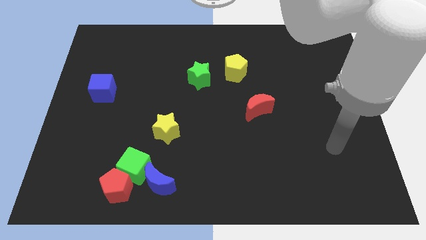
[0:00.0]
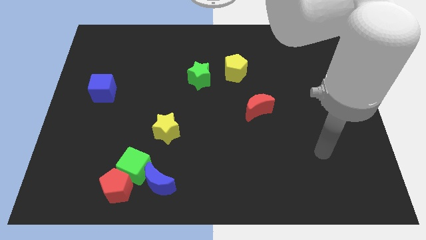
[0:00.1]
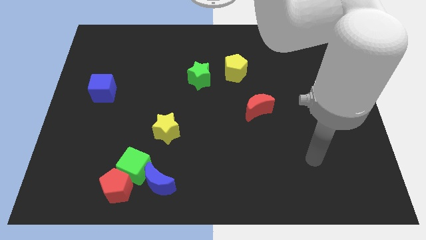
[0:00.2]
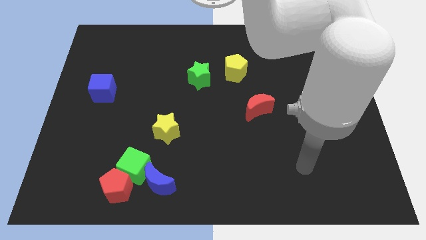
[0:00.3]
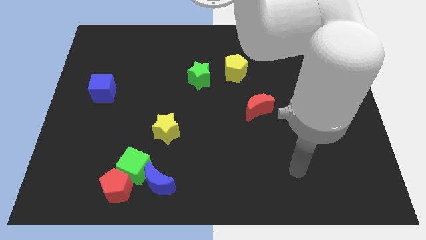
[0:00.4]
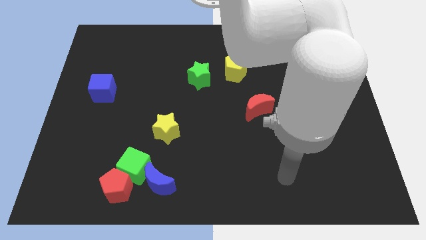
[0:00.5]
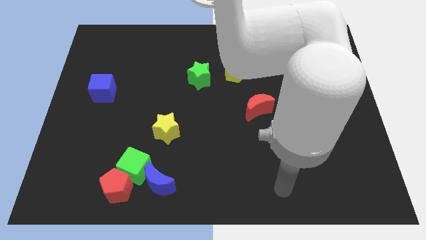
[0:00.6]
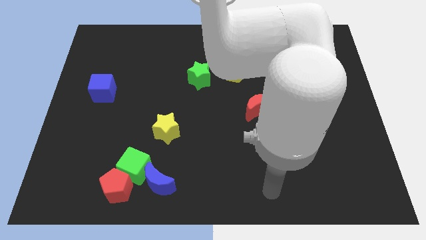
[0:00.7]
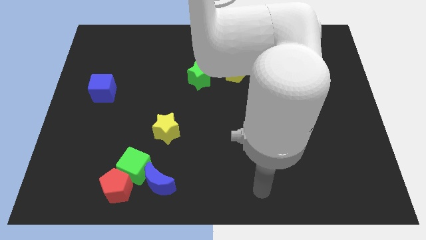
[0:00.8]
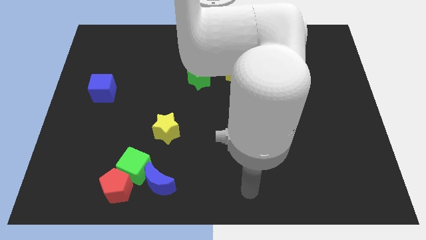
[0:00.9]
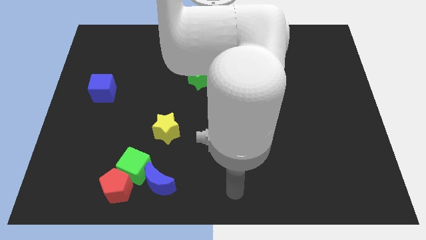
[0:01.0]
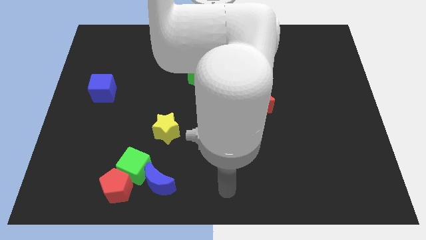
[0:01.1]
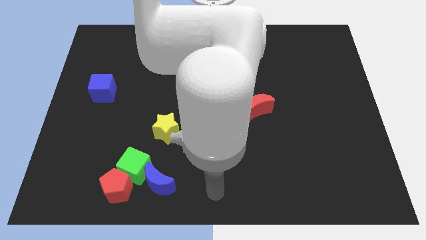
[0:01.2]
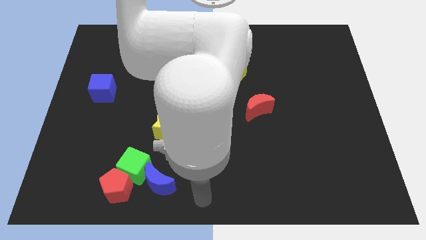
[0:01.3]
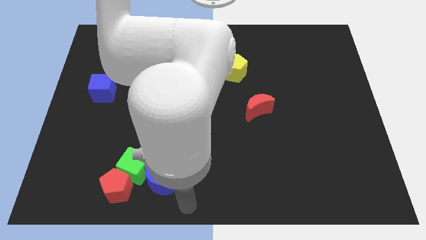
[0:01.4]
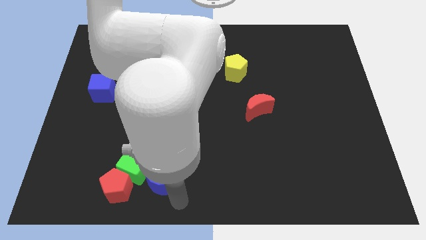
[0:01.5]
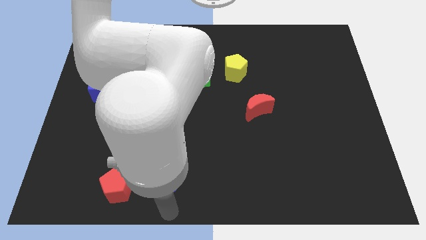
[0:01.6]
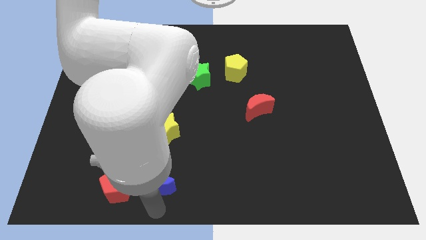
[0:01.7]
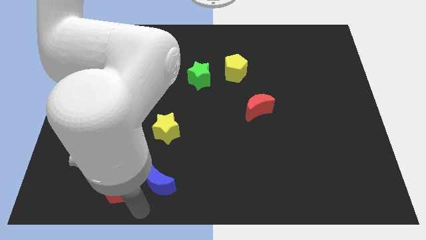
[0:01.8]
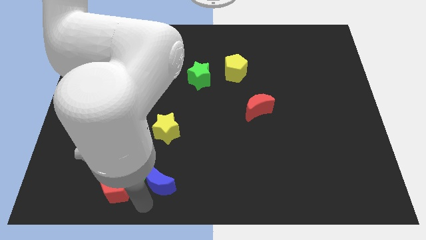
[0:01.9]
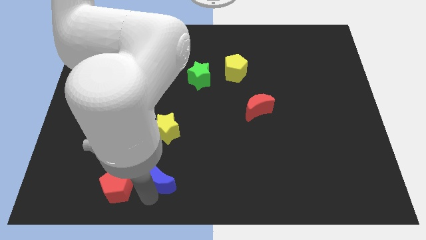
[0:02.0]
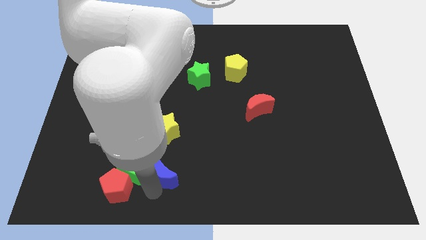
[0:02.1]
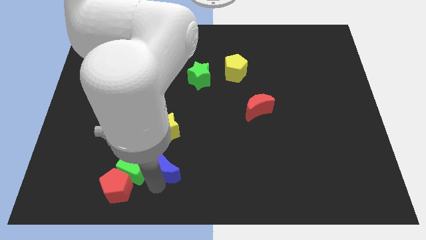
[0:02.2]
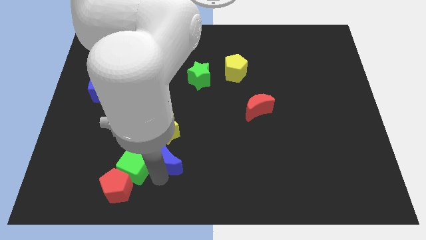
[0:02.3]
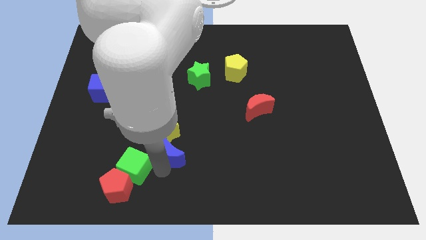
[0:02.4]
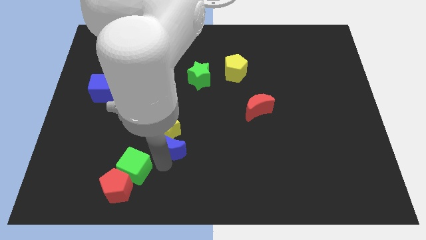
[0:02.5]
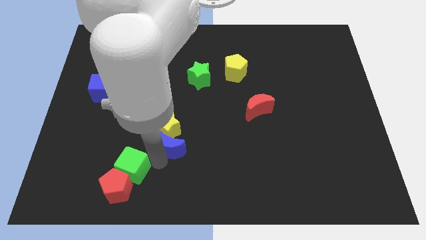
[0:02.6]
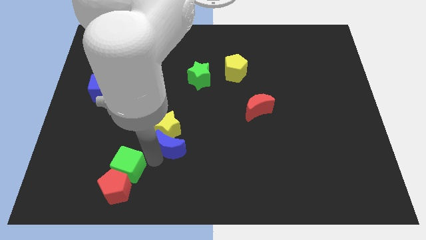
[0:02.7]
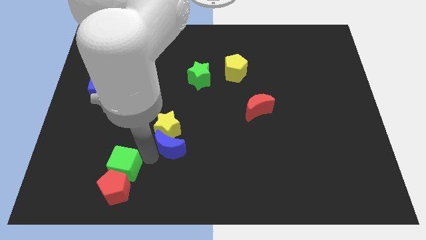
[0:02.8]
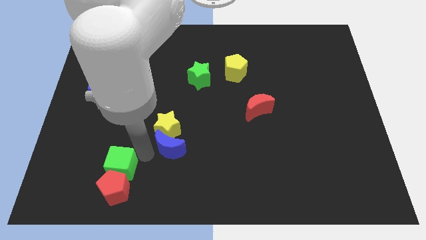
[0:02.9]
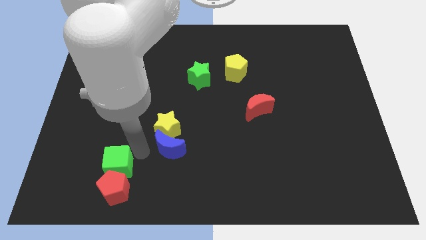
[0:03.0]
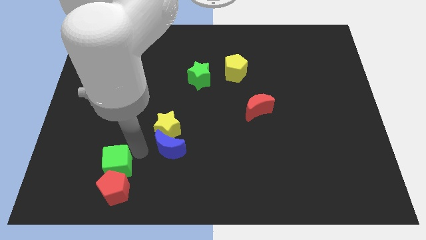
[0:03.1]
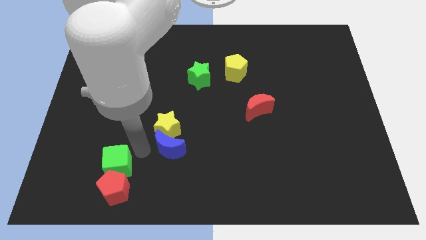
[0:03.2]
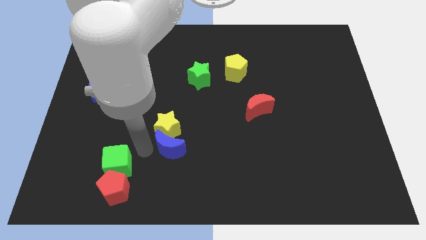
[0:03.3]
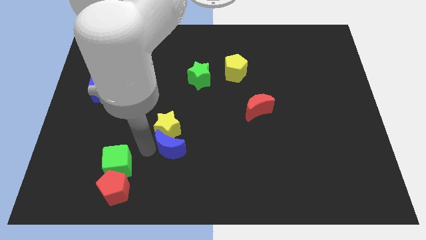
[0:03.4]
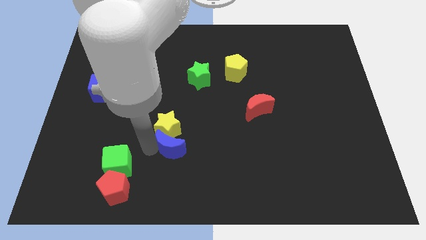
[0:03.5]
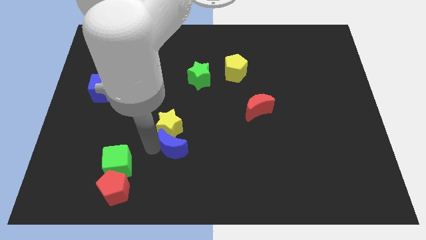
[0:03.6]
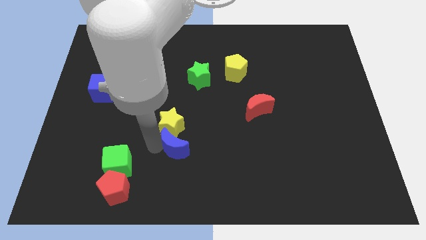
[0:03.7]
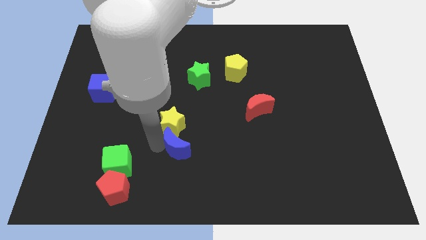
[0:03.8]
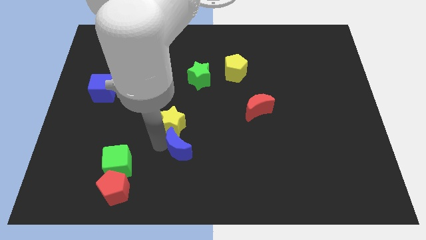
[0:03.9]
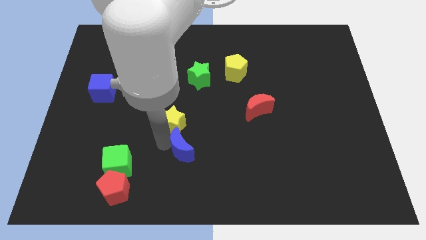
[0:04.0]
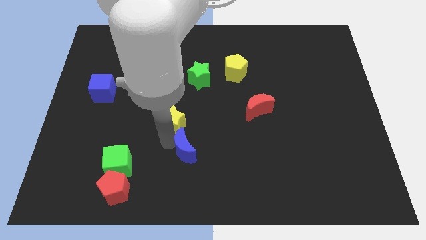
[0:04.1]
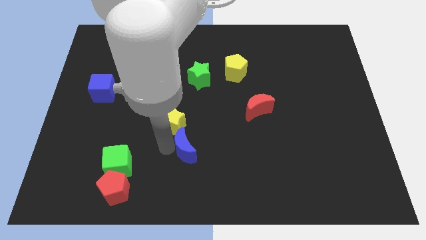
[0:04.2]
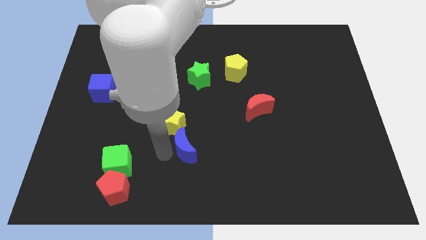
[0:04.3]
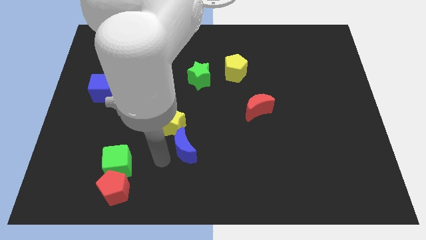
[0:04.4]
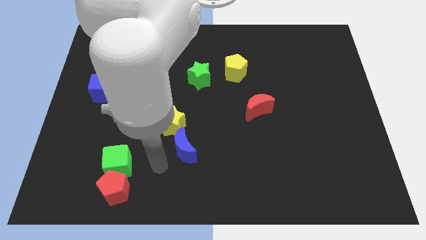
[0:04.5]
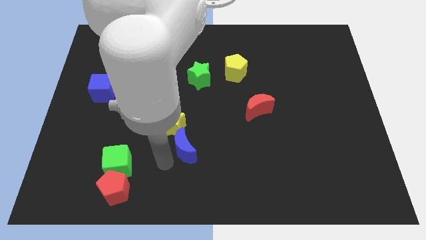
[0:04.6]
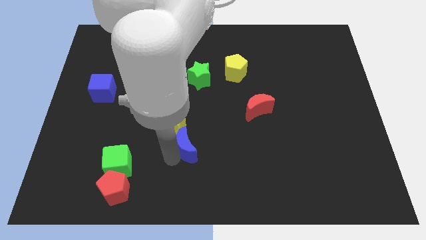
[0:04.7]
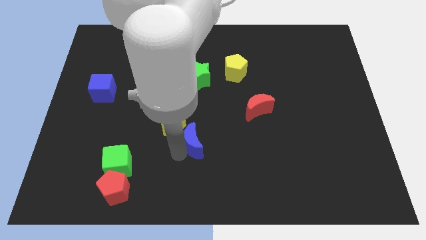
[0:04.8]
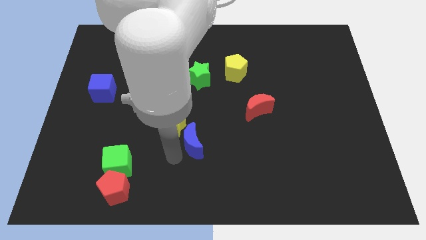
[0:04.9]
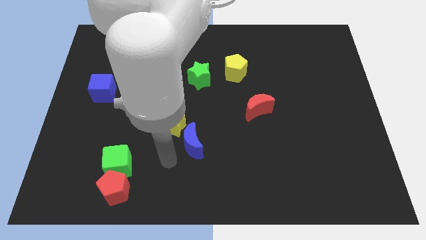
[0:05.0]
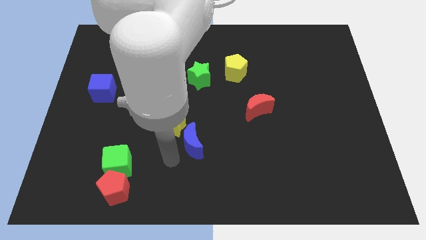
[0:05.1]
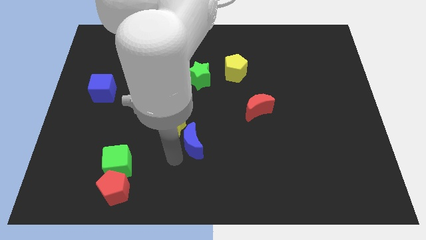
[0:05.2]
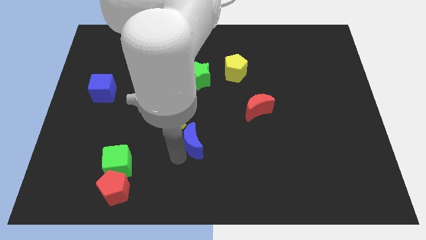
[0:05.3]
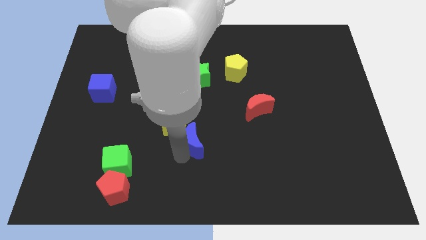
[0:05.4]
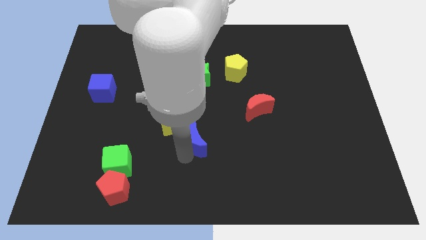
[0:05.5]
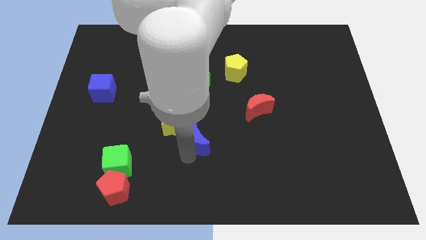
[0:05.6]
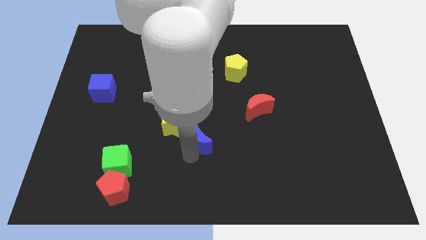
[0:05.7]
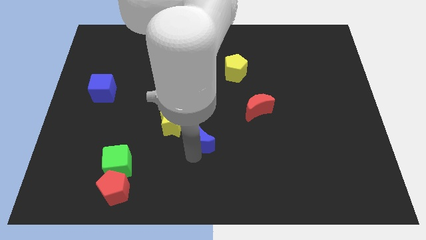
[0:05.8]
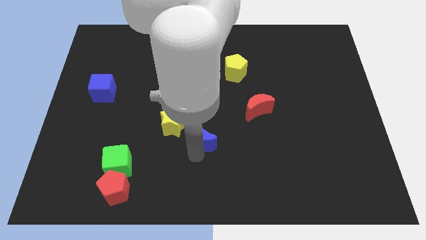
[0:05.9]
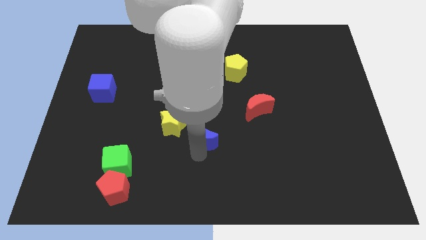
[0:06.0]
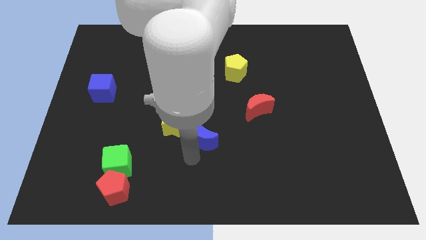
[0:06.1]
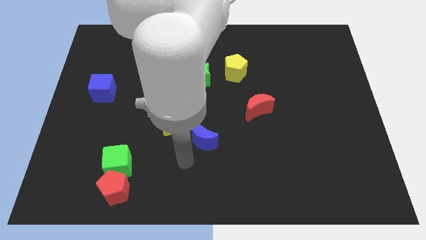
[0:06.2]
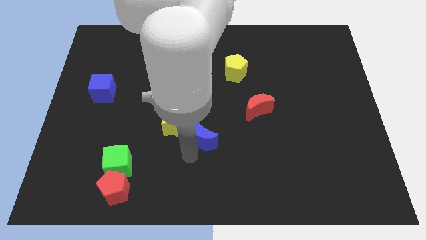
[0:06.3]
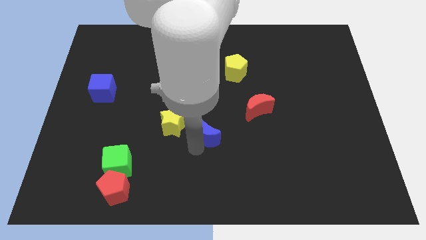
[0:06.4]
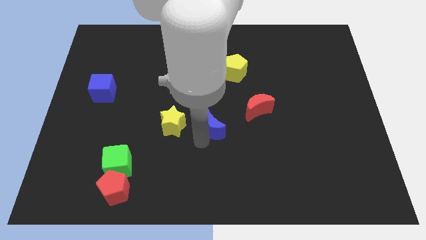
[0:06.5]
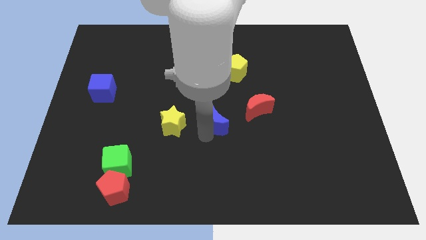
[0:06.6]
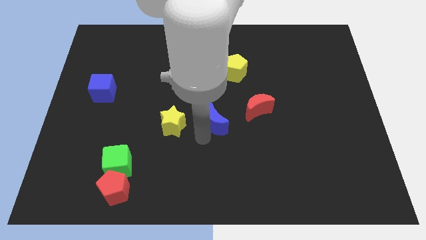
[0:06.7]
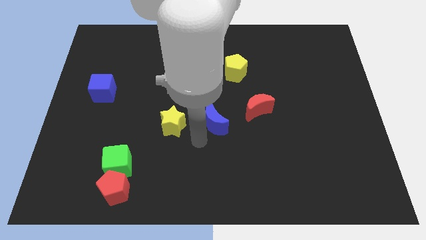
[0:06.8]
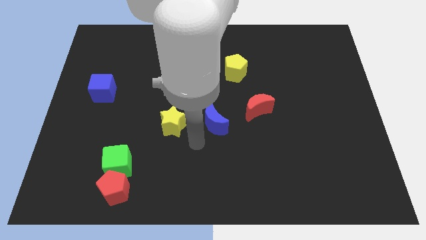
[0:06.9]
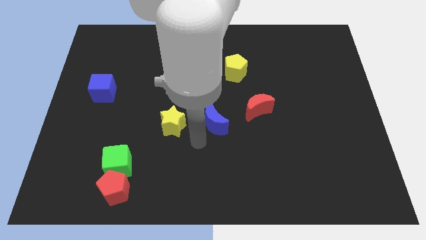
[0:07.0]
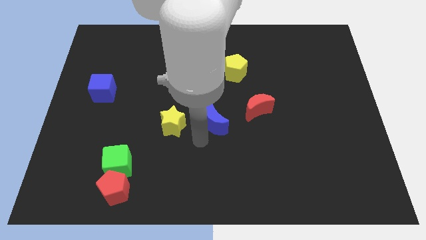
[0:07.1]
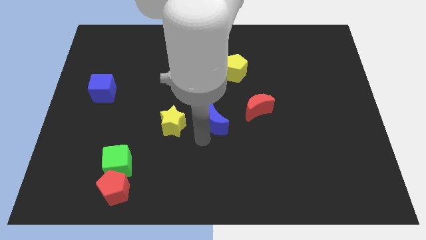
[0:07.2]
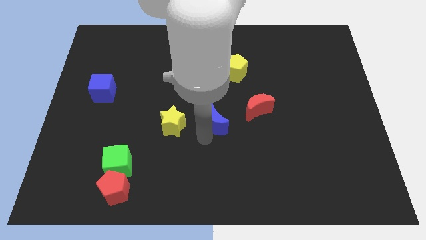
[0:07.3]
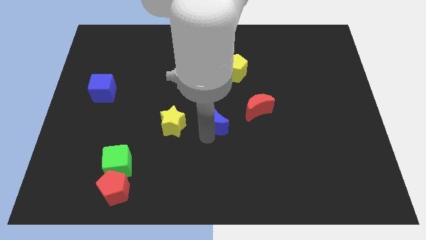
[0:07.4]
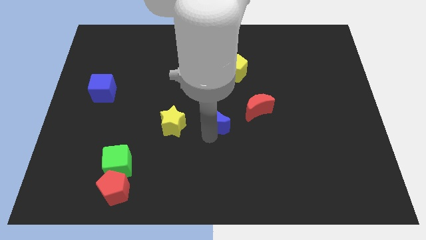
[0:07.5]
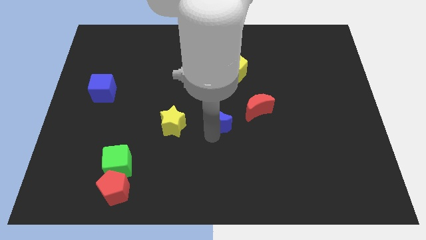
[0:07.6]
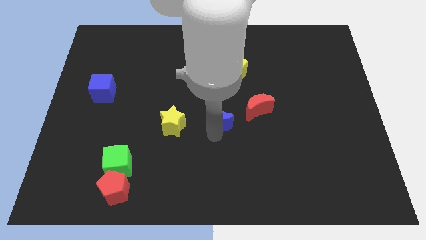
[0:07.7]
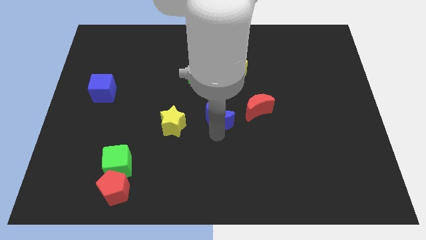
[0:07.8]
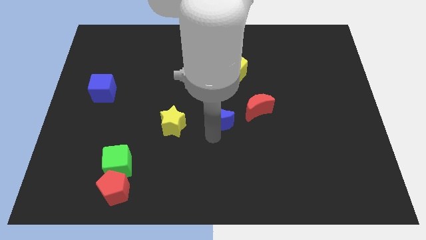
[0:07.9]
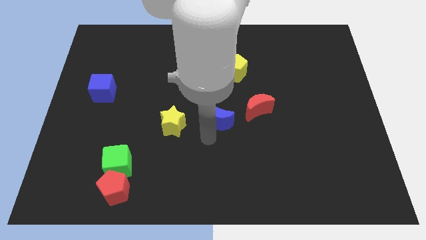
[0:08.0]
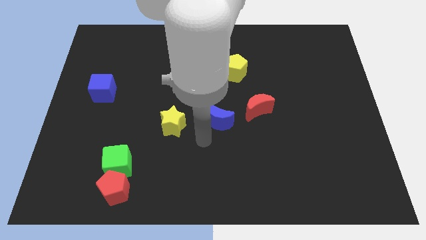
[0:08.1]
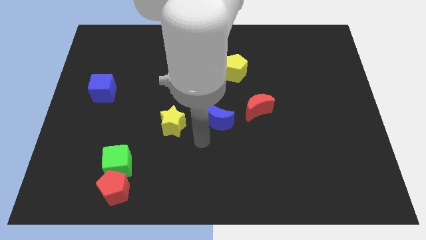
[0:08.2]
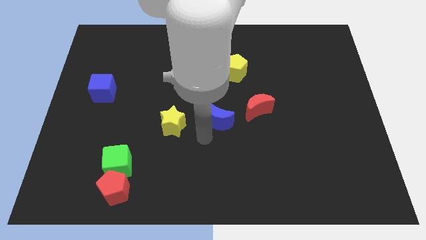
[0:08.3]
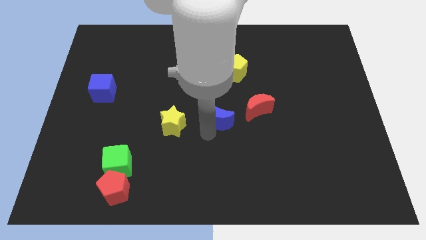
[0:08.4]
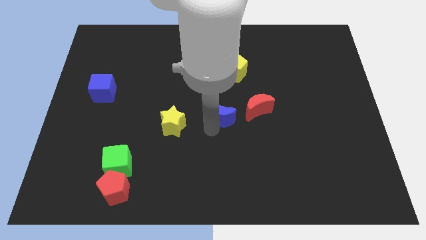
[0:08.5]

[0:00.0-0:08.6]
push the blue moon up and to the right diagonally
